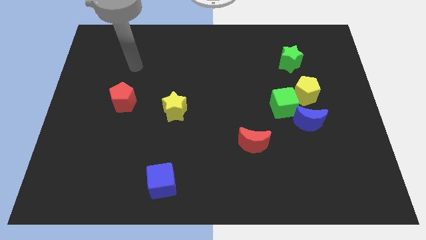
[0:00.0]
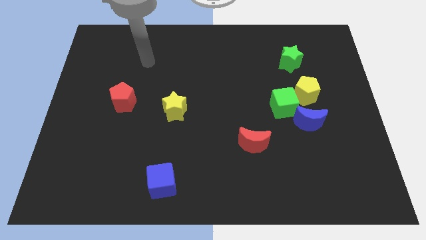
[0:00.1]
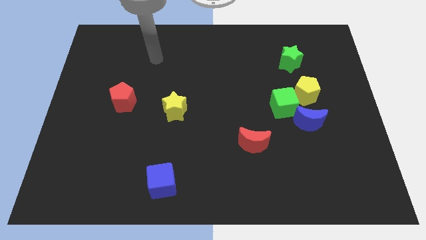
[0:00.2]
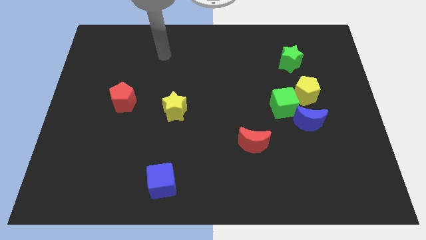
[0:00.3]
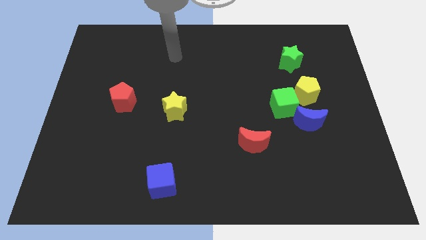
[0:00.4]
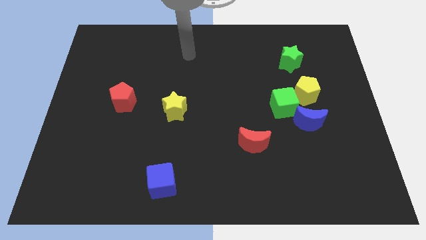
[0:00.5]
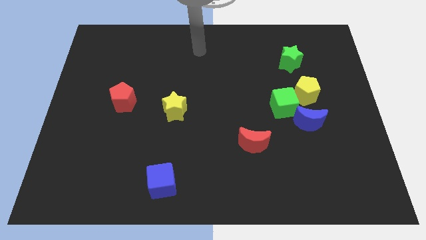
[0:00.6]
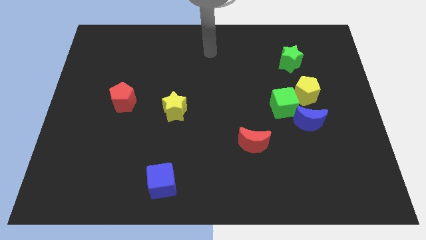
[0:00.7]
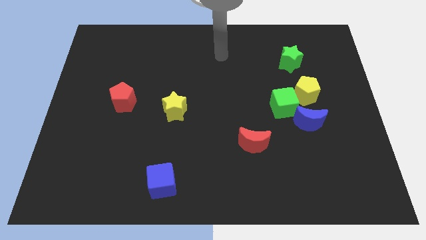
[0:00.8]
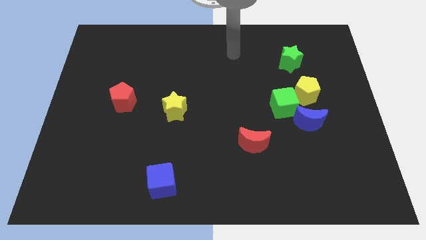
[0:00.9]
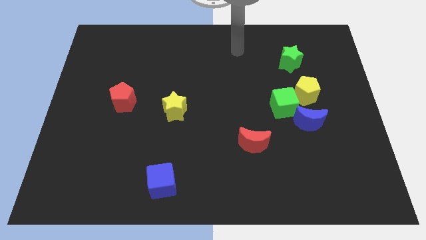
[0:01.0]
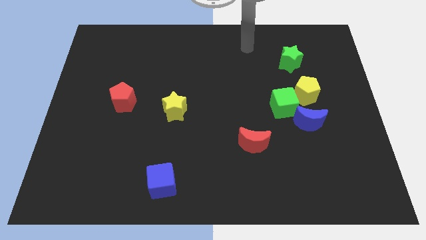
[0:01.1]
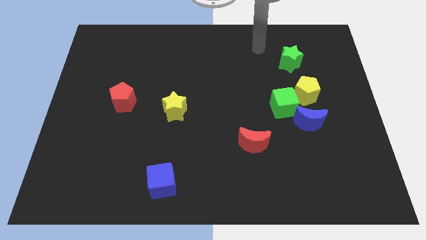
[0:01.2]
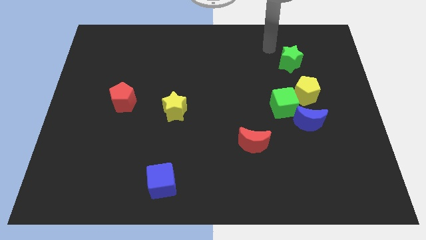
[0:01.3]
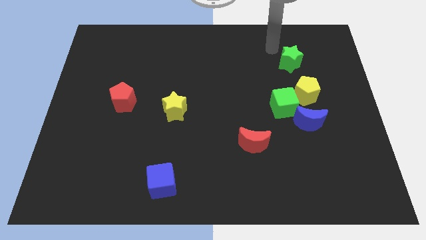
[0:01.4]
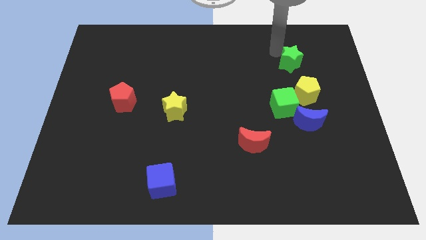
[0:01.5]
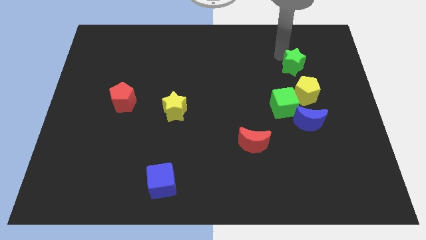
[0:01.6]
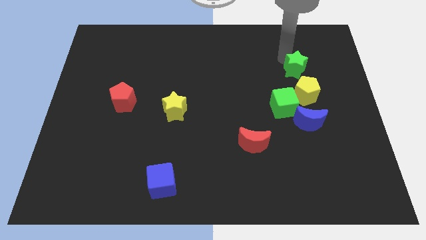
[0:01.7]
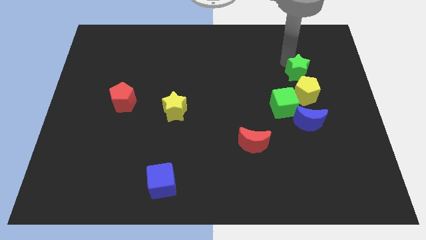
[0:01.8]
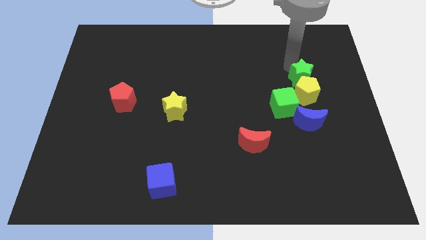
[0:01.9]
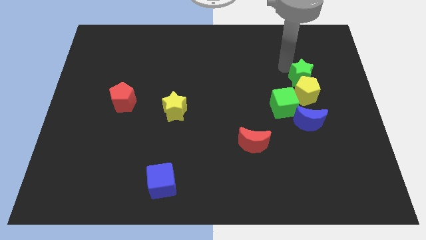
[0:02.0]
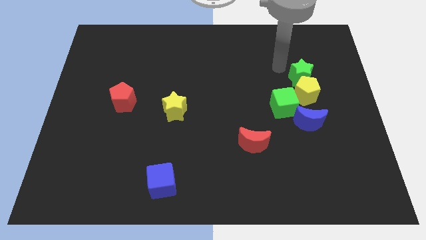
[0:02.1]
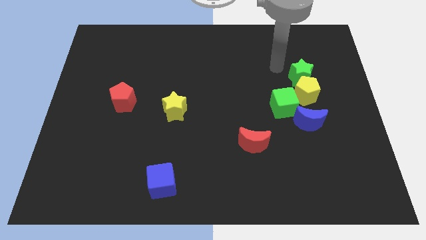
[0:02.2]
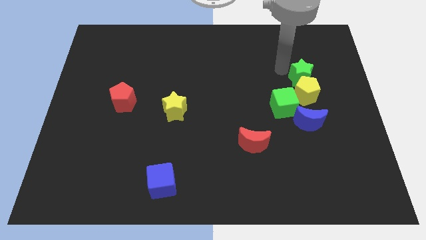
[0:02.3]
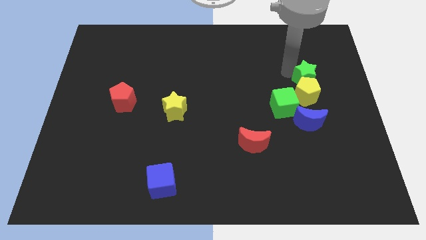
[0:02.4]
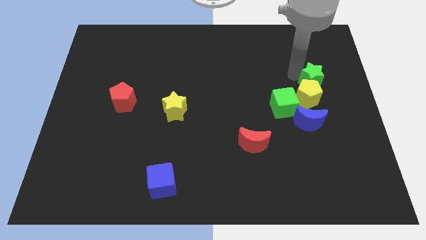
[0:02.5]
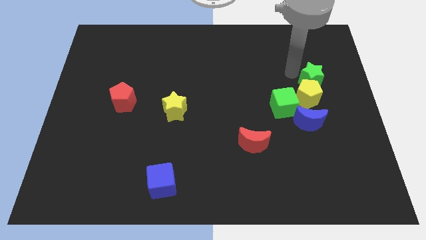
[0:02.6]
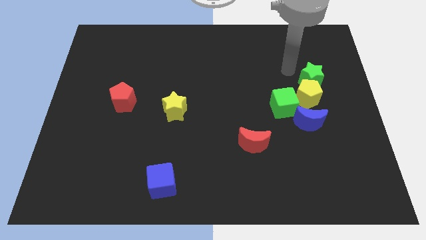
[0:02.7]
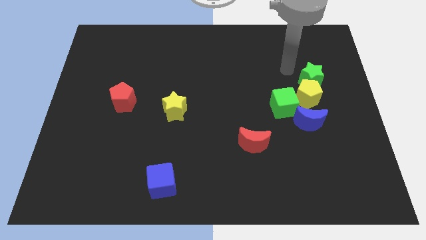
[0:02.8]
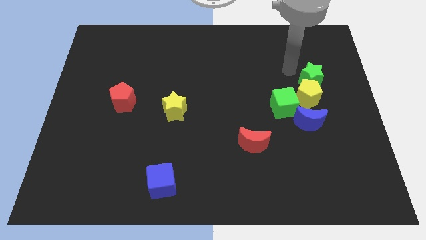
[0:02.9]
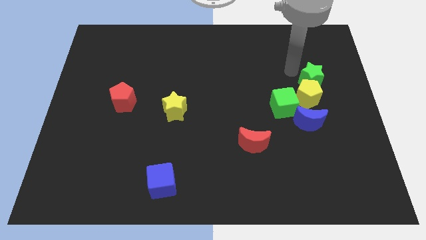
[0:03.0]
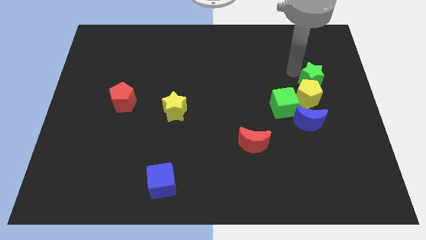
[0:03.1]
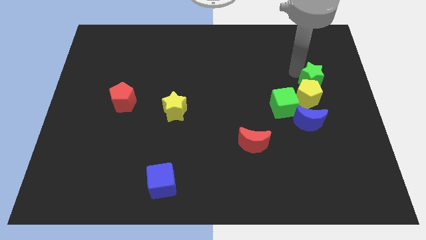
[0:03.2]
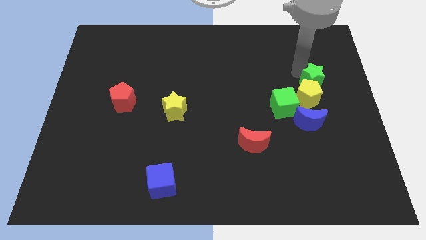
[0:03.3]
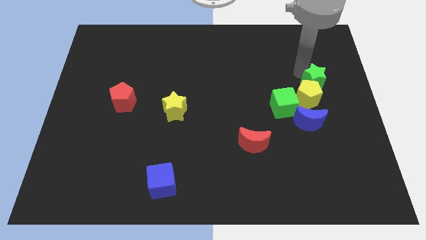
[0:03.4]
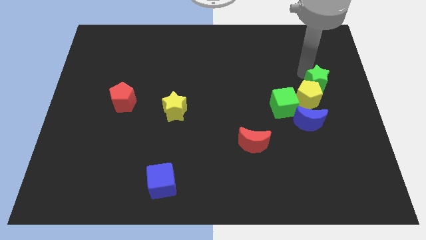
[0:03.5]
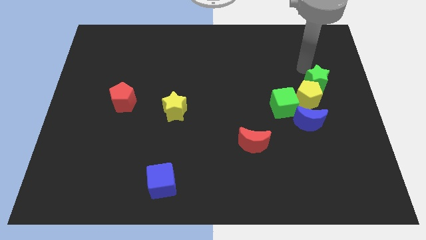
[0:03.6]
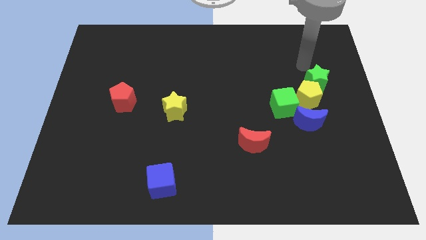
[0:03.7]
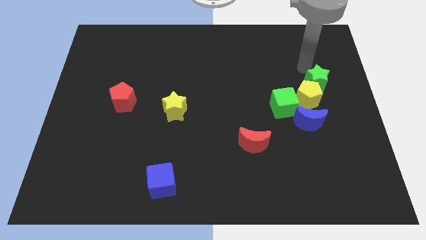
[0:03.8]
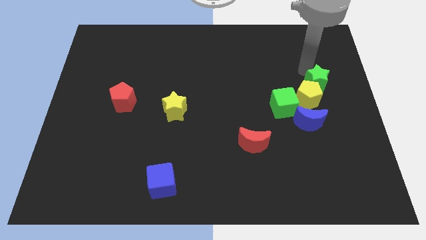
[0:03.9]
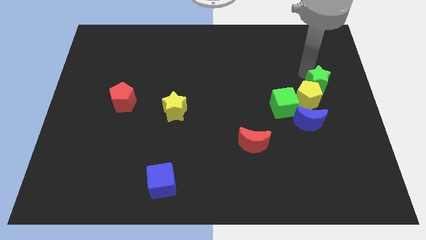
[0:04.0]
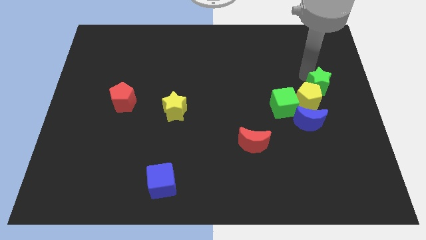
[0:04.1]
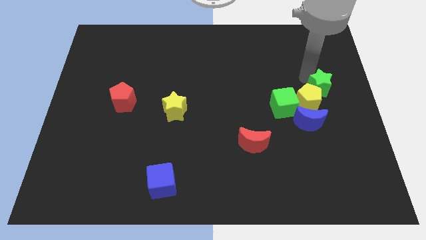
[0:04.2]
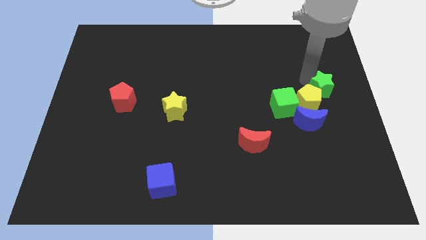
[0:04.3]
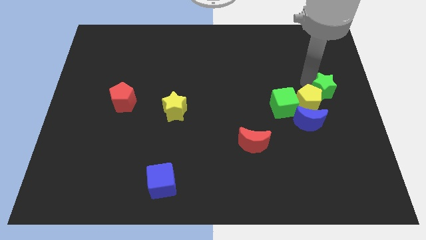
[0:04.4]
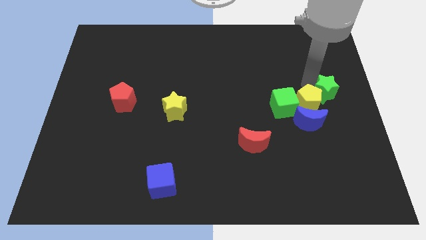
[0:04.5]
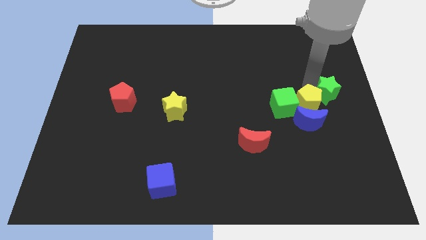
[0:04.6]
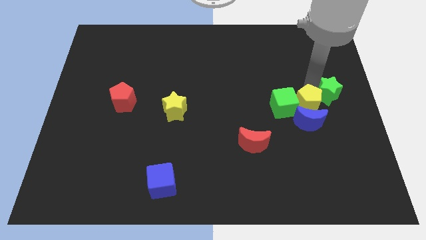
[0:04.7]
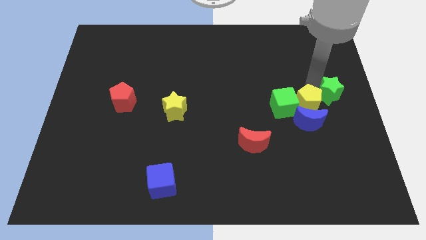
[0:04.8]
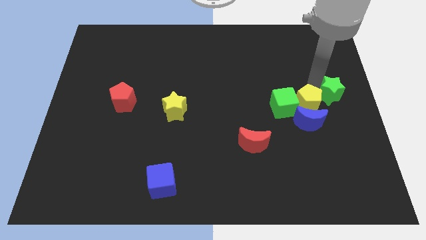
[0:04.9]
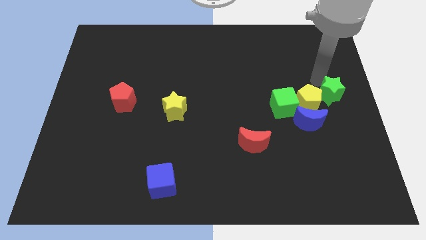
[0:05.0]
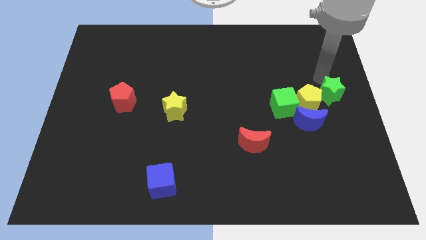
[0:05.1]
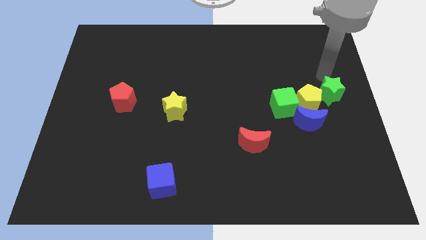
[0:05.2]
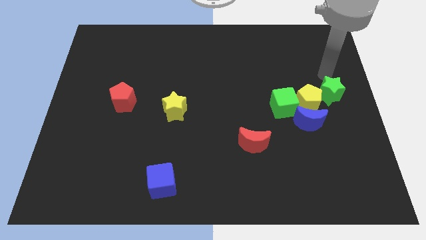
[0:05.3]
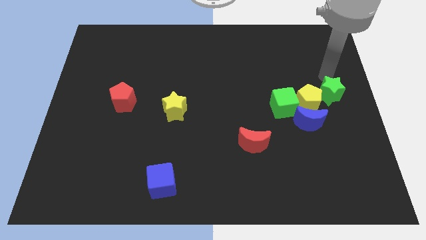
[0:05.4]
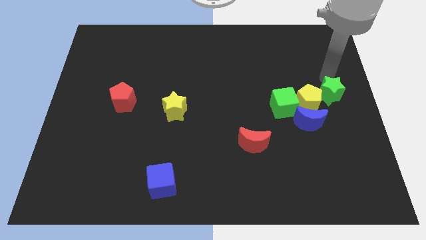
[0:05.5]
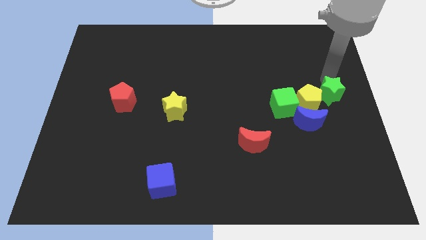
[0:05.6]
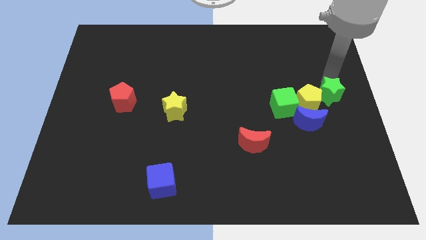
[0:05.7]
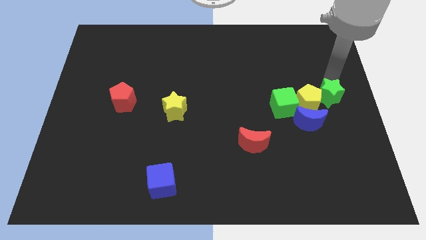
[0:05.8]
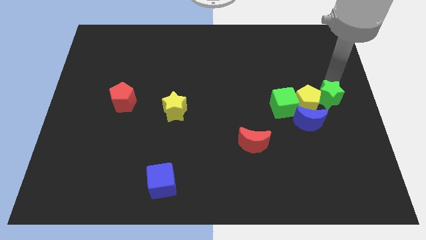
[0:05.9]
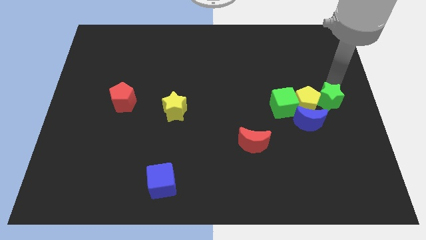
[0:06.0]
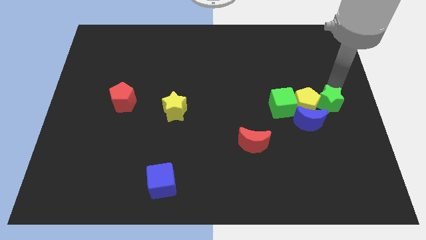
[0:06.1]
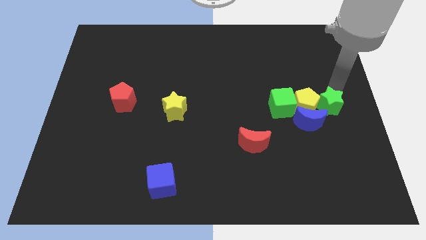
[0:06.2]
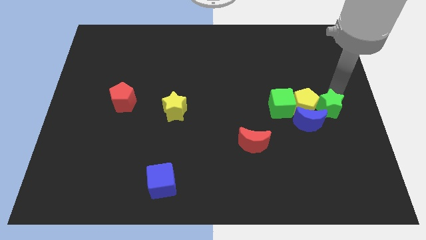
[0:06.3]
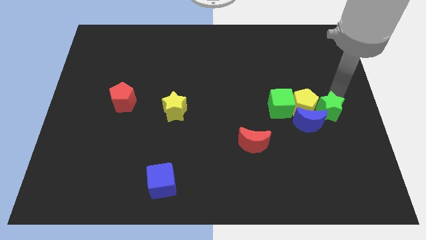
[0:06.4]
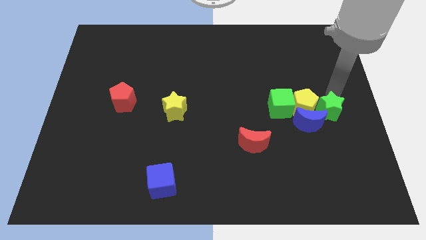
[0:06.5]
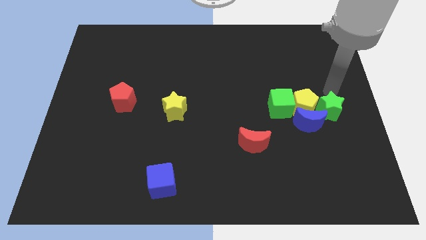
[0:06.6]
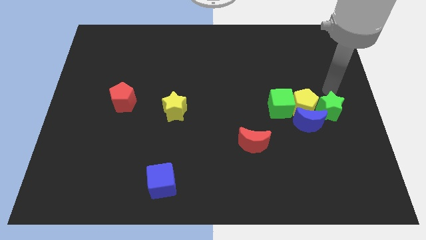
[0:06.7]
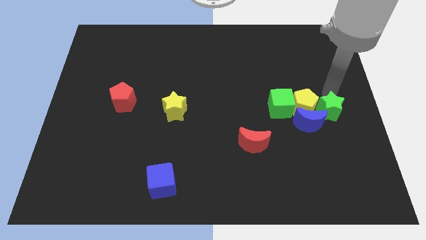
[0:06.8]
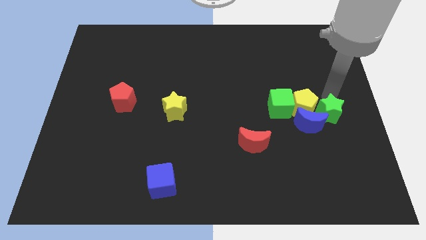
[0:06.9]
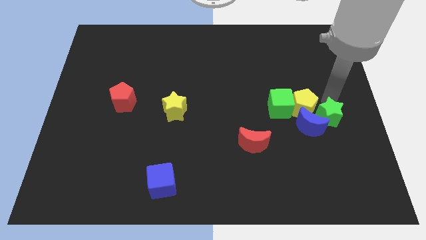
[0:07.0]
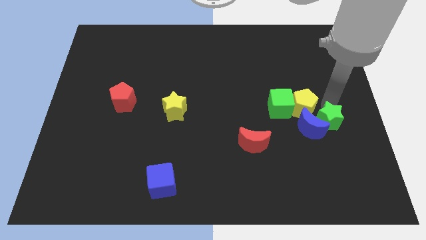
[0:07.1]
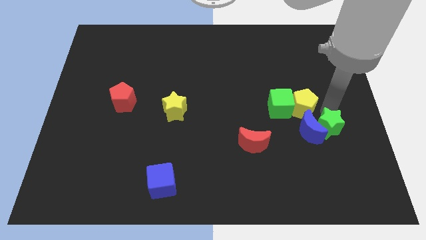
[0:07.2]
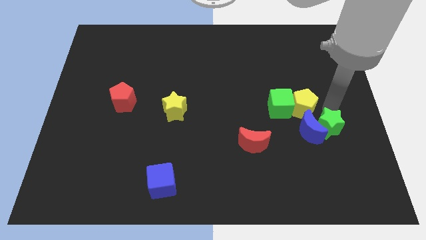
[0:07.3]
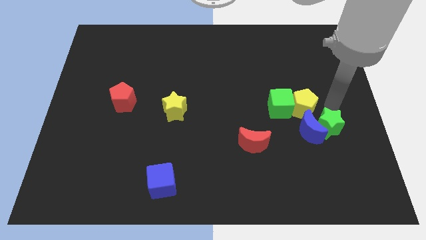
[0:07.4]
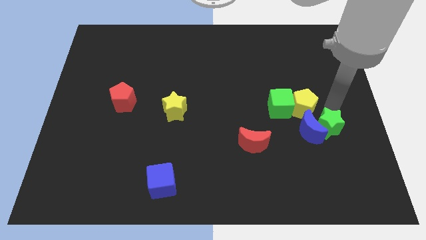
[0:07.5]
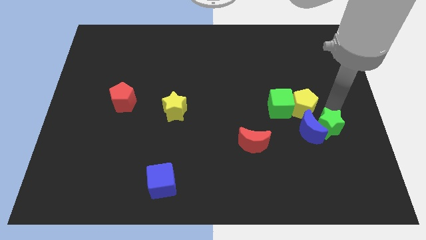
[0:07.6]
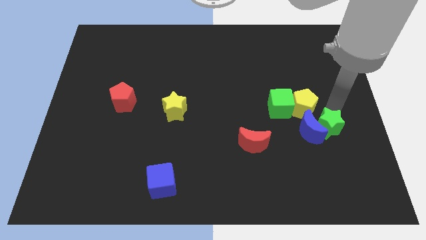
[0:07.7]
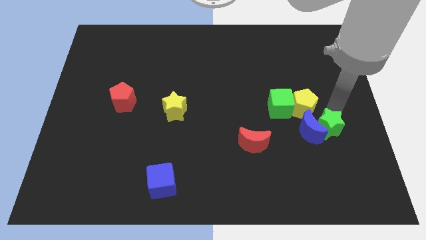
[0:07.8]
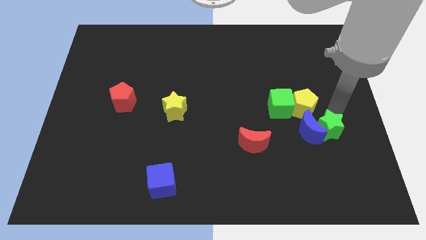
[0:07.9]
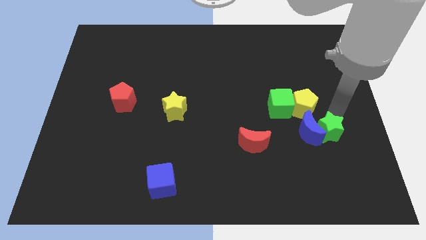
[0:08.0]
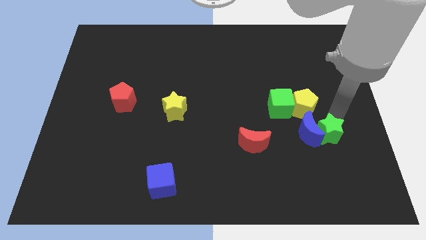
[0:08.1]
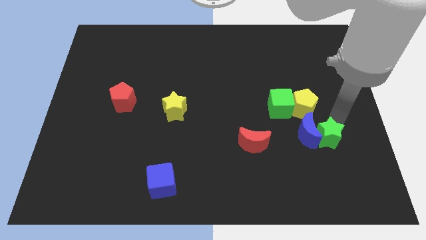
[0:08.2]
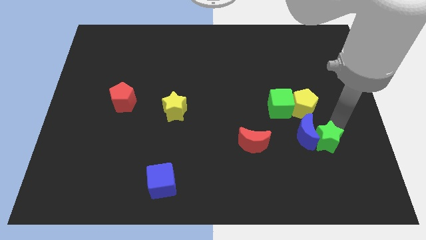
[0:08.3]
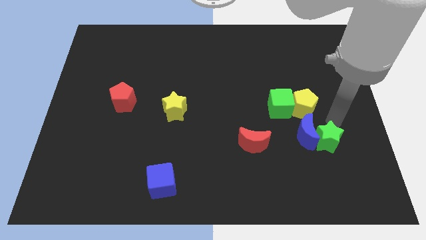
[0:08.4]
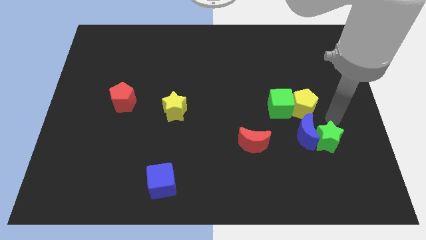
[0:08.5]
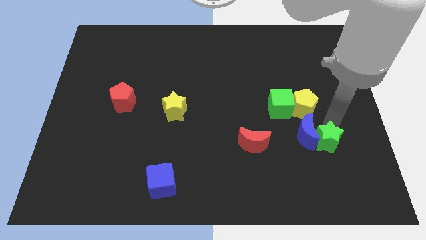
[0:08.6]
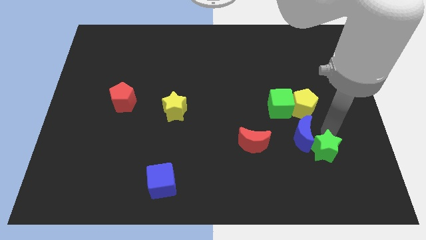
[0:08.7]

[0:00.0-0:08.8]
move the green star to the bottom of the blue moon
